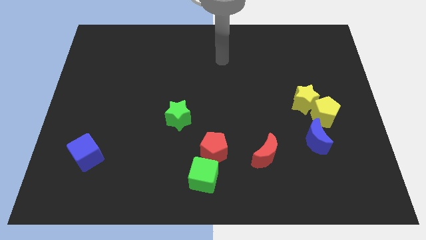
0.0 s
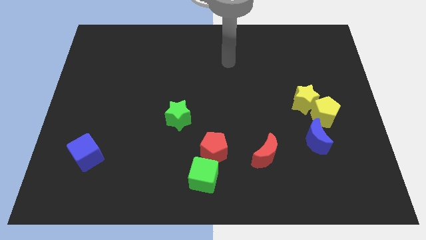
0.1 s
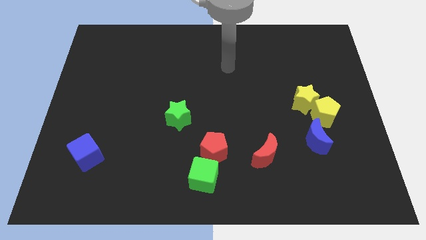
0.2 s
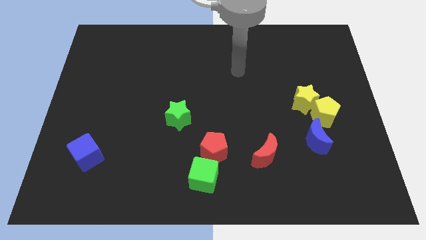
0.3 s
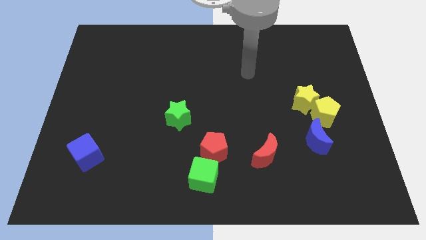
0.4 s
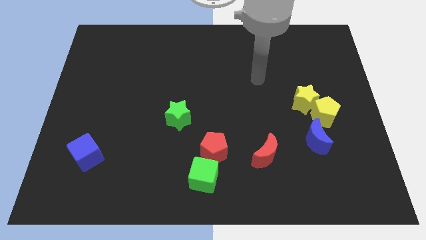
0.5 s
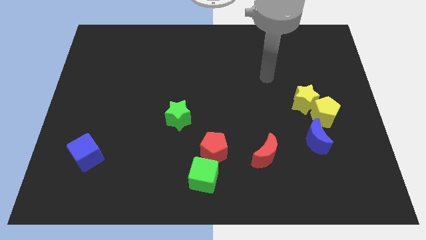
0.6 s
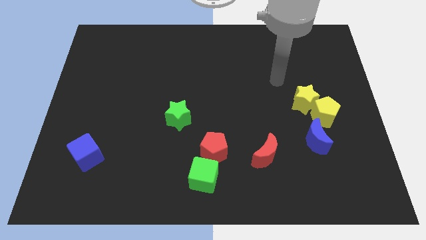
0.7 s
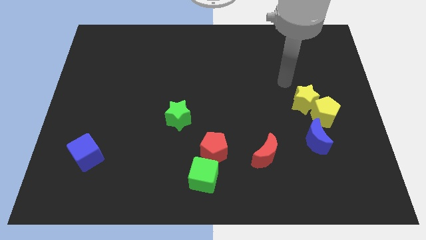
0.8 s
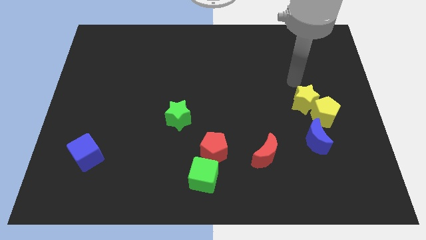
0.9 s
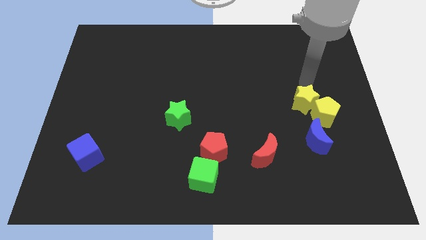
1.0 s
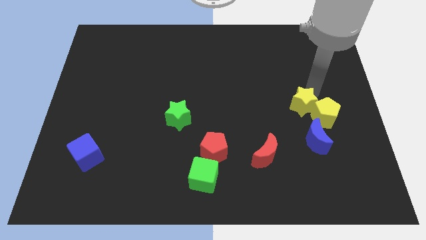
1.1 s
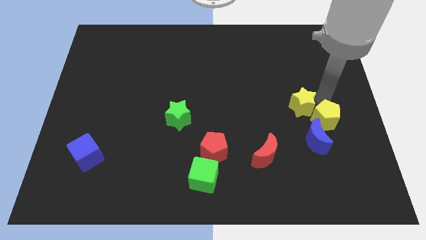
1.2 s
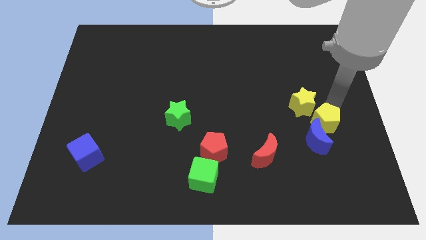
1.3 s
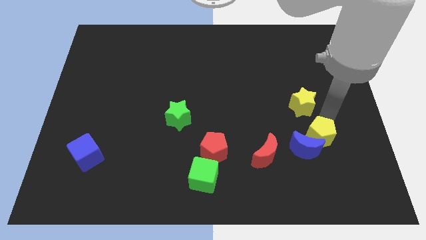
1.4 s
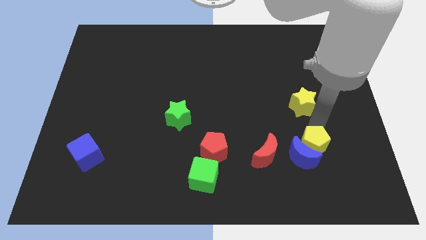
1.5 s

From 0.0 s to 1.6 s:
move the yellow star away from the yellow pentagon

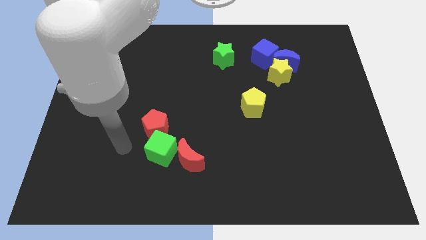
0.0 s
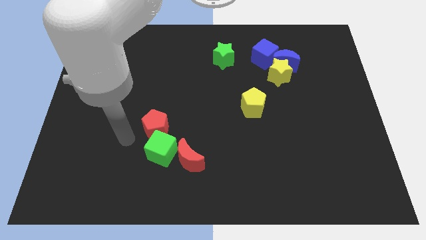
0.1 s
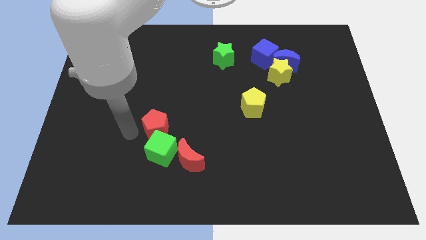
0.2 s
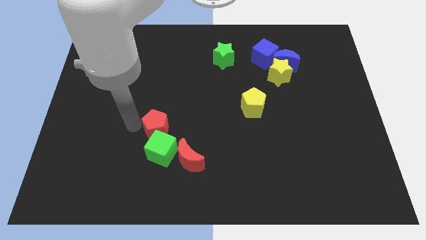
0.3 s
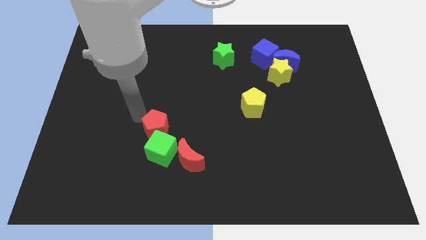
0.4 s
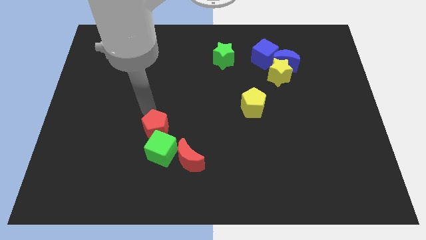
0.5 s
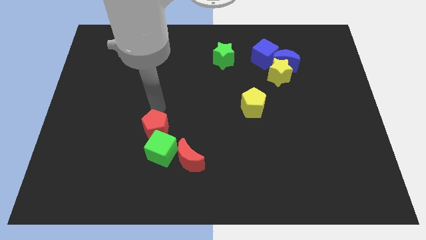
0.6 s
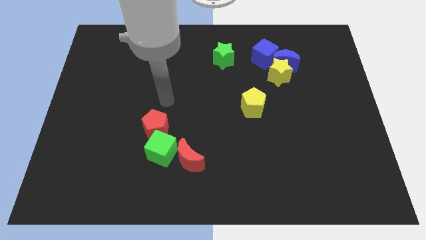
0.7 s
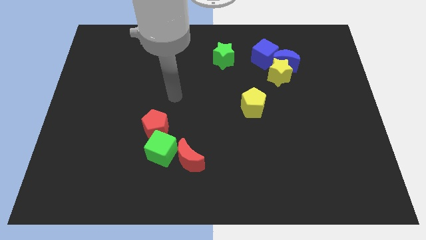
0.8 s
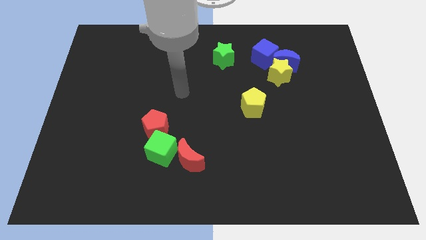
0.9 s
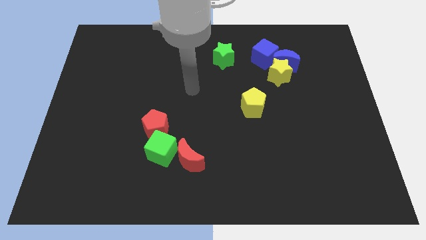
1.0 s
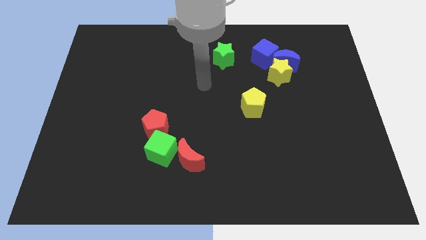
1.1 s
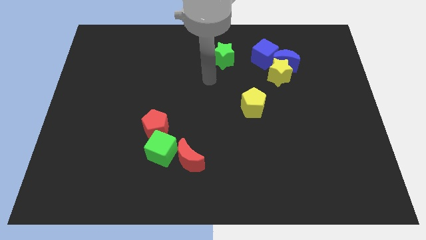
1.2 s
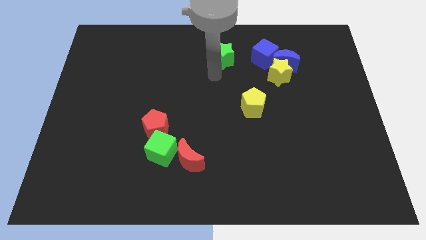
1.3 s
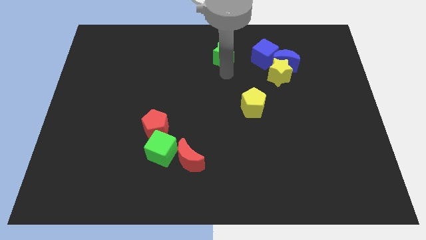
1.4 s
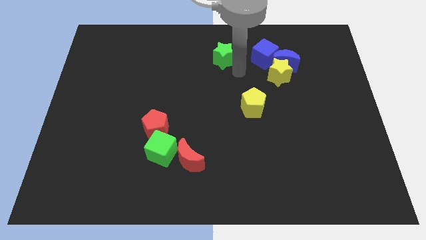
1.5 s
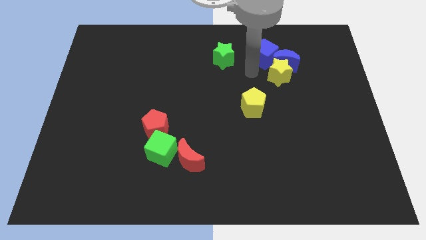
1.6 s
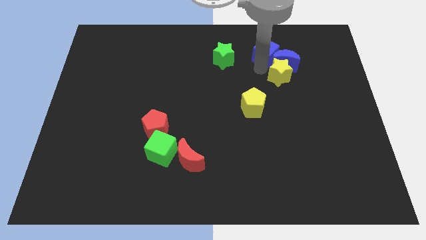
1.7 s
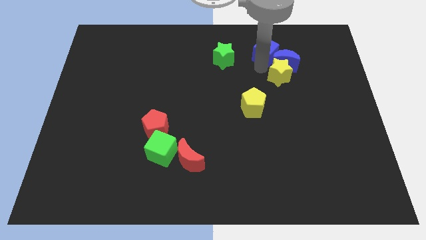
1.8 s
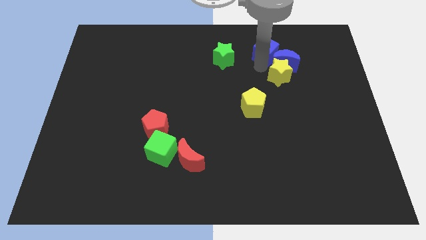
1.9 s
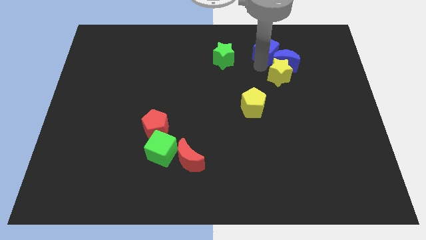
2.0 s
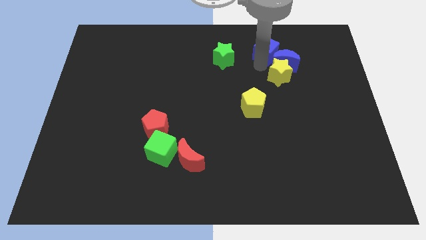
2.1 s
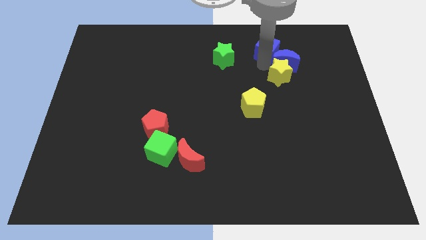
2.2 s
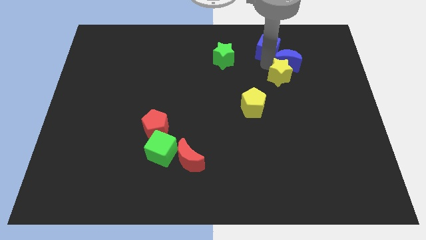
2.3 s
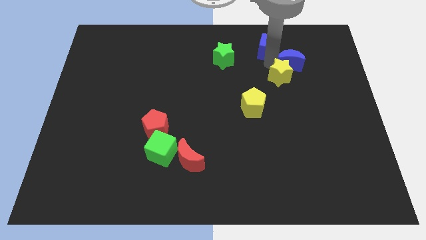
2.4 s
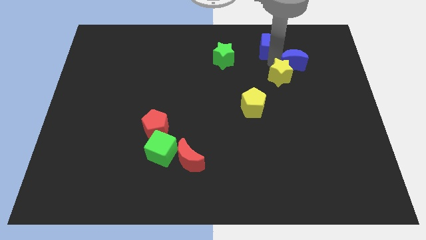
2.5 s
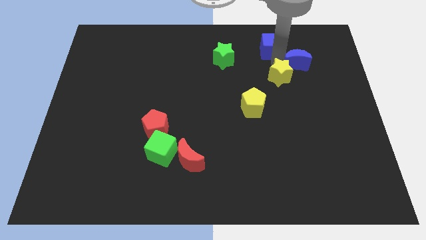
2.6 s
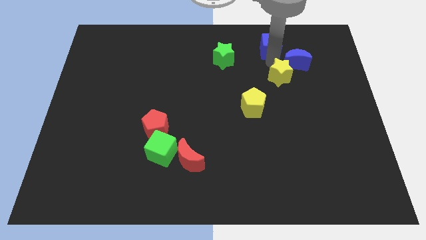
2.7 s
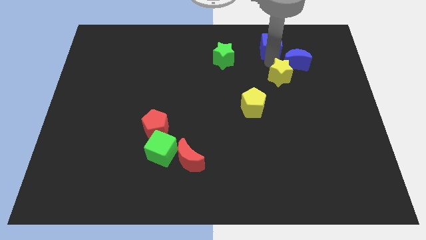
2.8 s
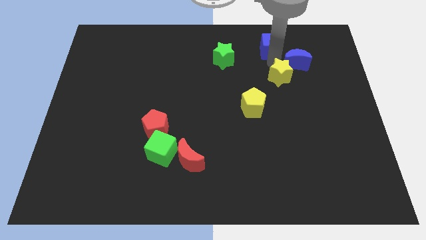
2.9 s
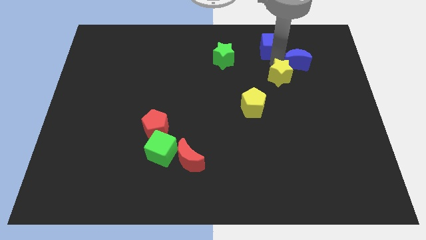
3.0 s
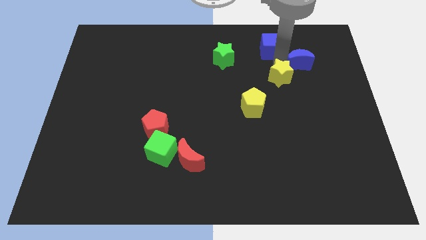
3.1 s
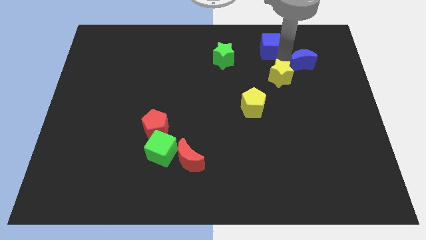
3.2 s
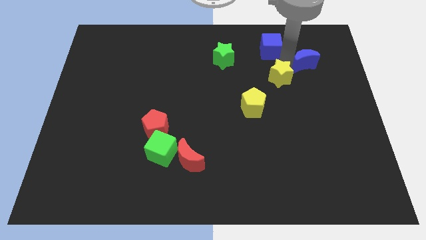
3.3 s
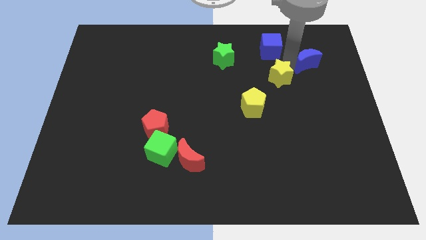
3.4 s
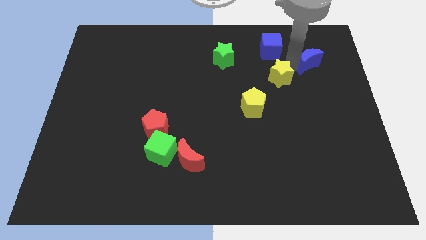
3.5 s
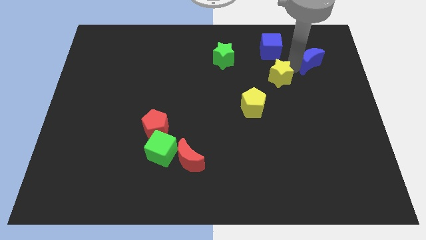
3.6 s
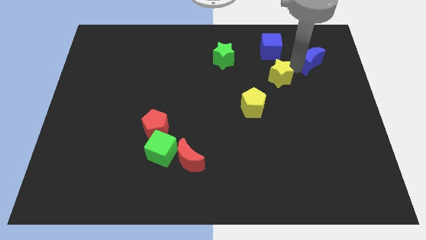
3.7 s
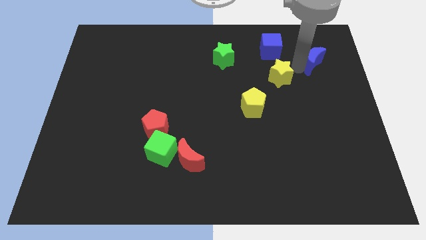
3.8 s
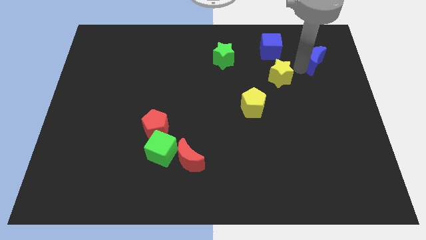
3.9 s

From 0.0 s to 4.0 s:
move the blue moon away from the yellow star and blue cube

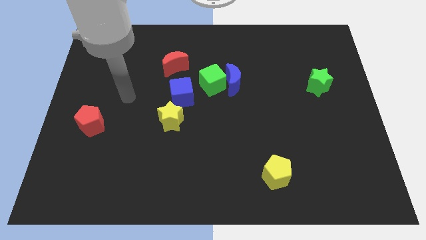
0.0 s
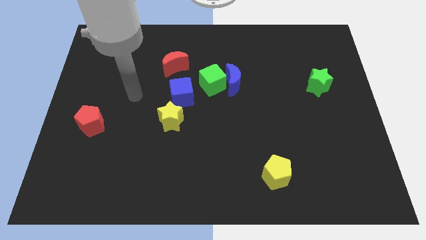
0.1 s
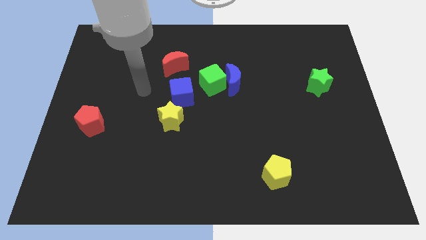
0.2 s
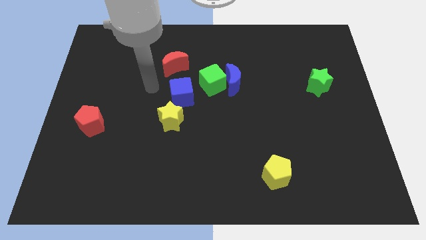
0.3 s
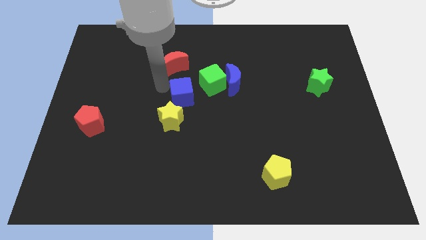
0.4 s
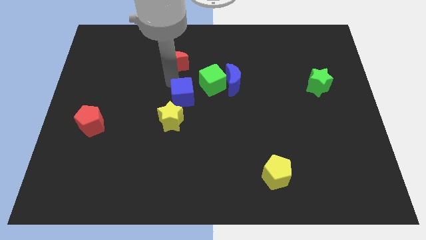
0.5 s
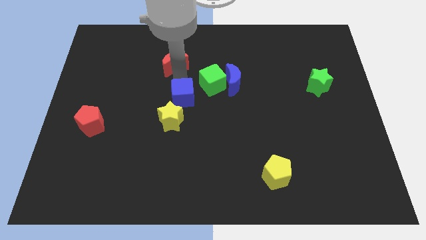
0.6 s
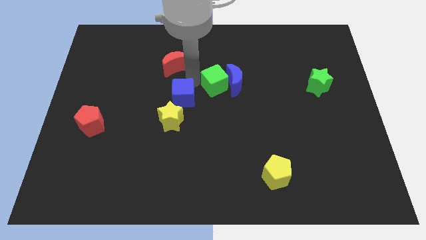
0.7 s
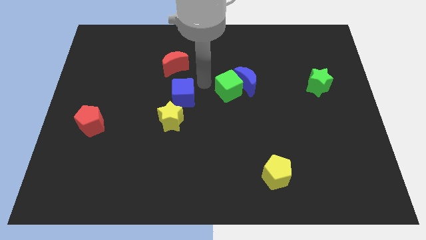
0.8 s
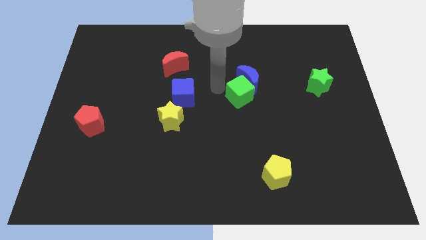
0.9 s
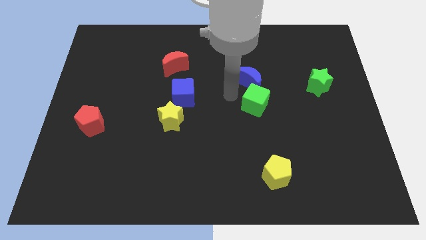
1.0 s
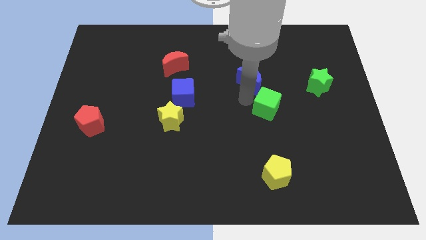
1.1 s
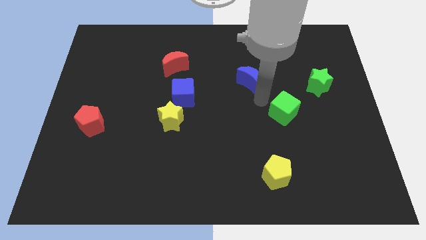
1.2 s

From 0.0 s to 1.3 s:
move the blue moon away from the green cube

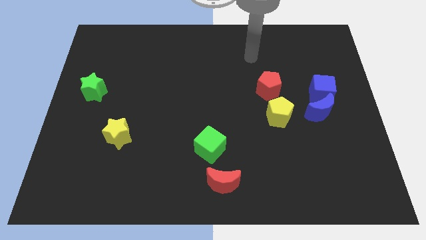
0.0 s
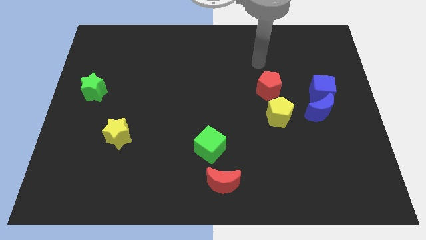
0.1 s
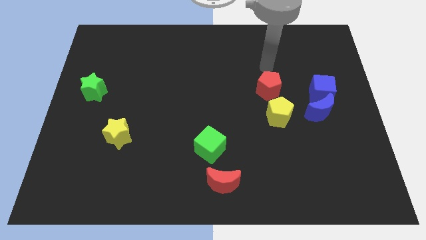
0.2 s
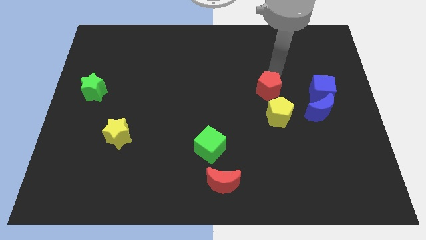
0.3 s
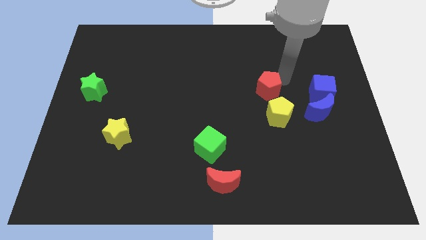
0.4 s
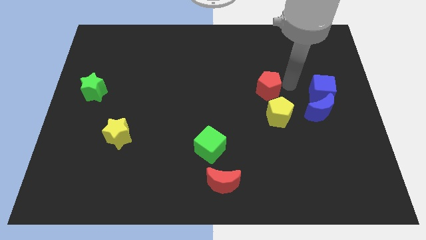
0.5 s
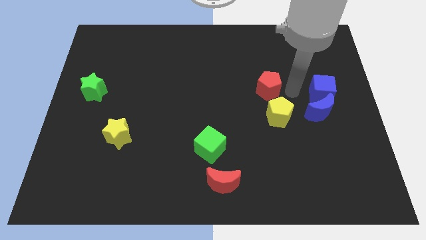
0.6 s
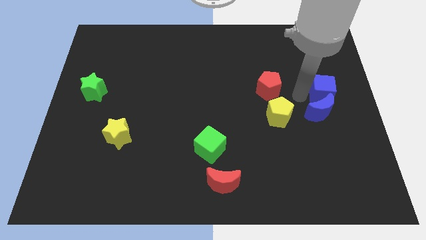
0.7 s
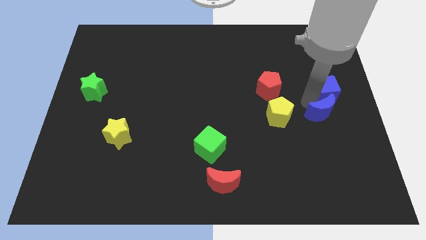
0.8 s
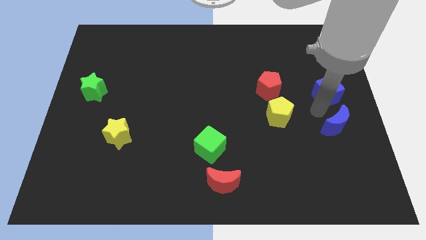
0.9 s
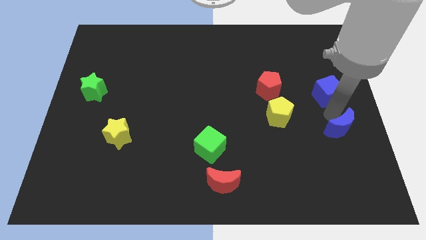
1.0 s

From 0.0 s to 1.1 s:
pull the blue cube apart from the blue moon

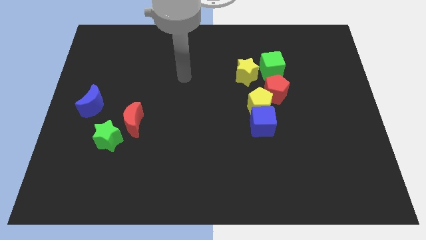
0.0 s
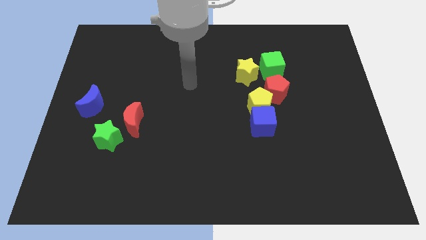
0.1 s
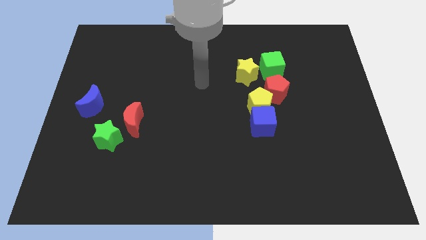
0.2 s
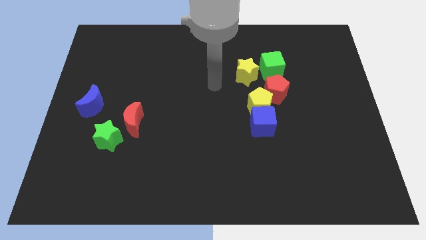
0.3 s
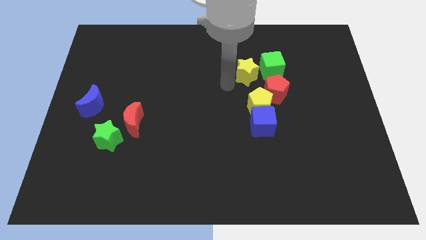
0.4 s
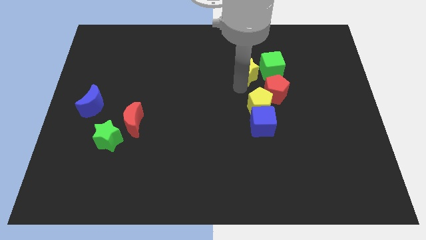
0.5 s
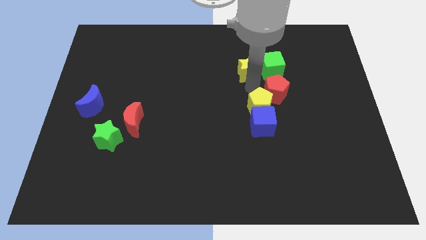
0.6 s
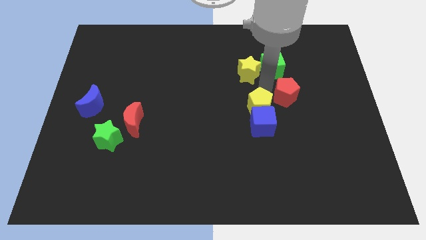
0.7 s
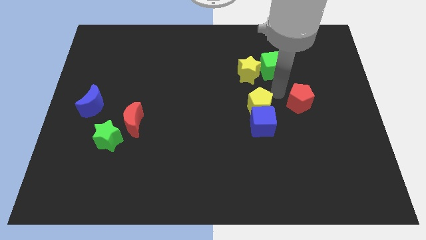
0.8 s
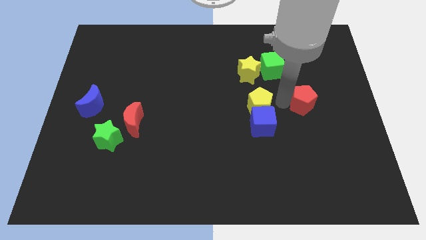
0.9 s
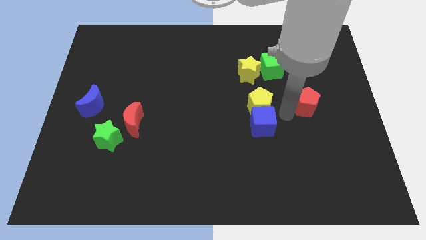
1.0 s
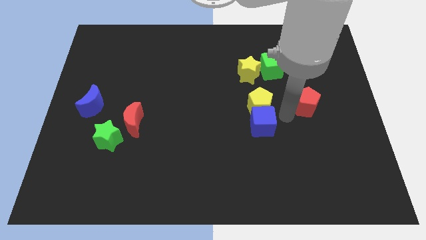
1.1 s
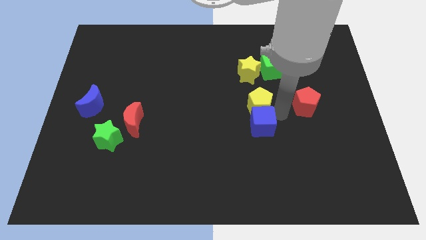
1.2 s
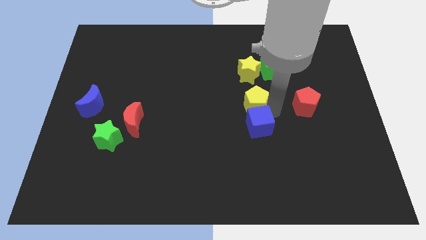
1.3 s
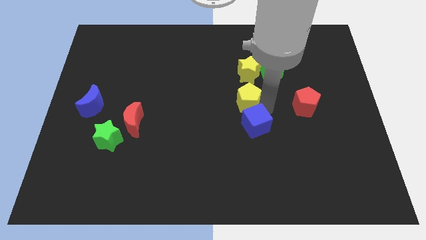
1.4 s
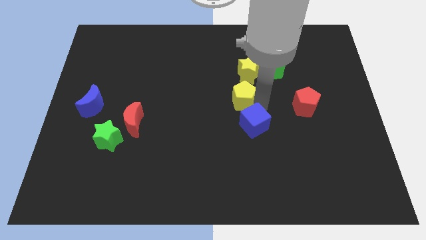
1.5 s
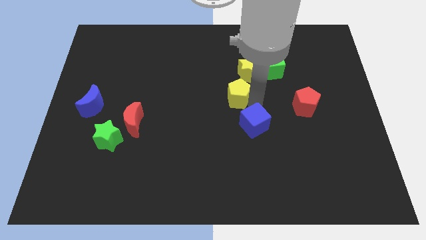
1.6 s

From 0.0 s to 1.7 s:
pull the yellow pentagon apart from the blue cube and red pentagon
